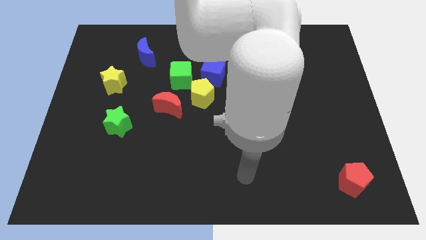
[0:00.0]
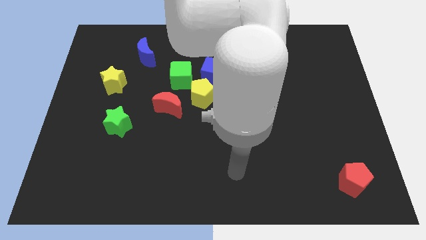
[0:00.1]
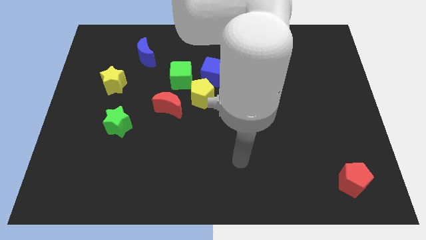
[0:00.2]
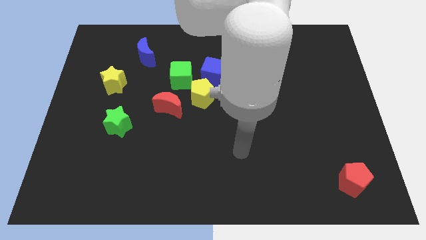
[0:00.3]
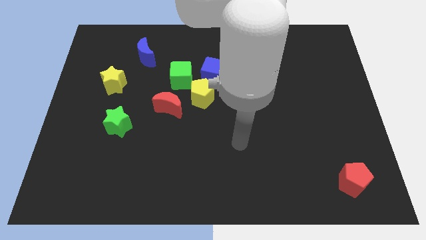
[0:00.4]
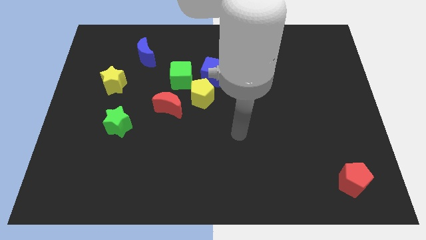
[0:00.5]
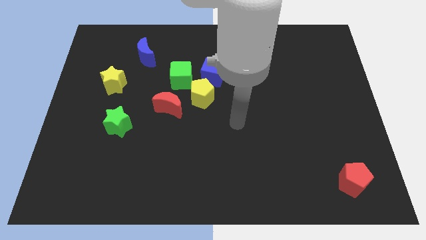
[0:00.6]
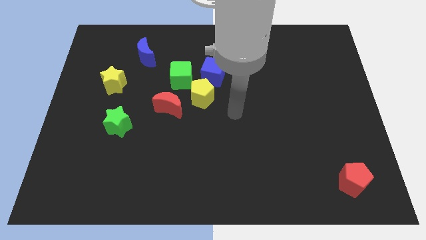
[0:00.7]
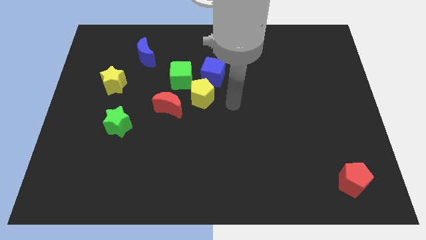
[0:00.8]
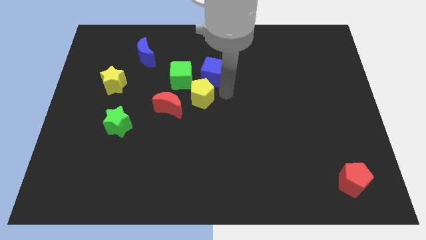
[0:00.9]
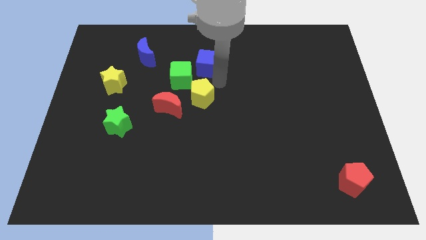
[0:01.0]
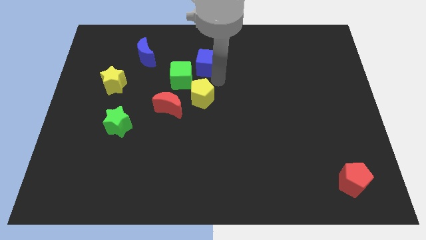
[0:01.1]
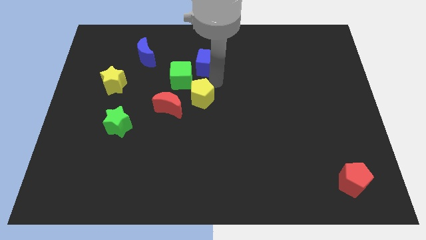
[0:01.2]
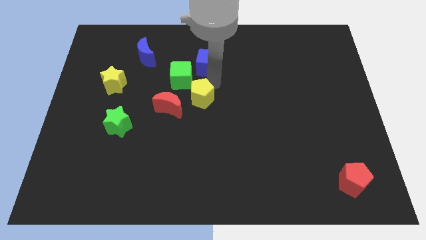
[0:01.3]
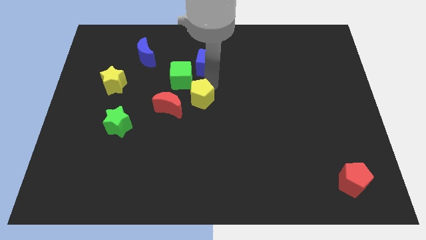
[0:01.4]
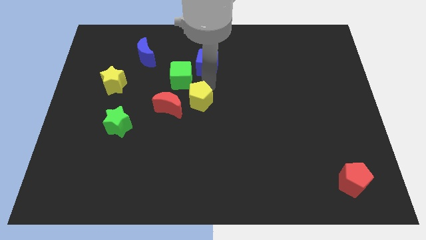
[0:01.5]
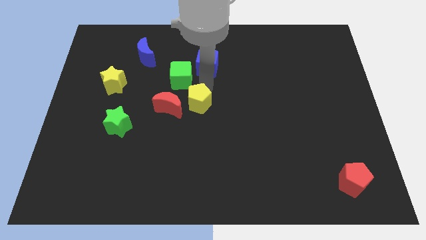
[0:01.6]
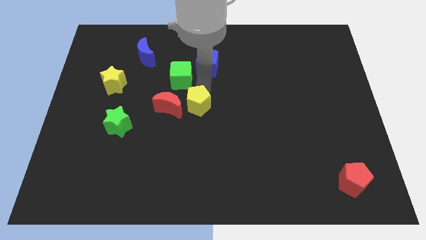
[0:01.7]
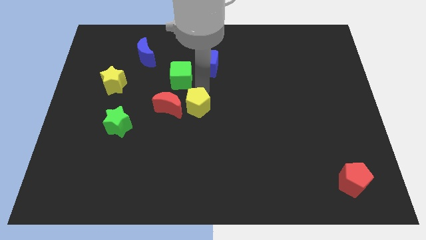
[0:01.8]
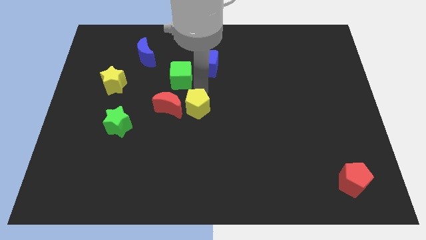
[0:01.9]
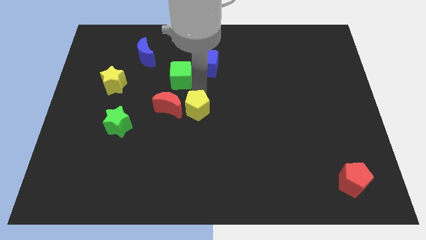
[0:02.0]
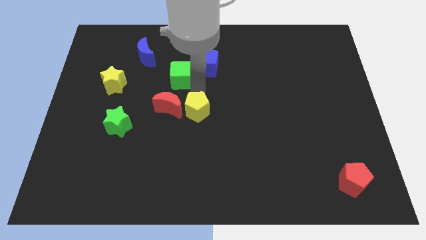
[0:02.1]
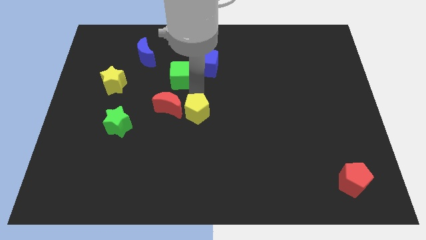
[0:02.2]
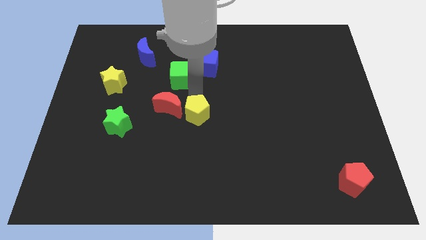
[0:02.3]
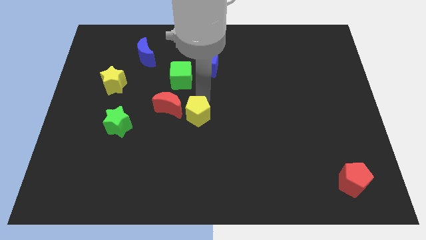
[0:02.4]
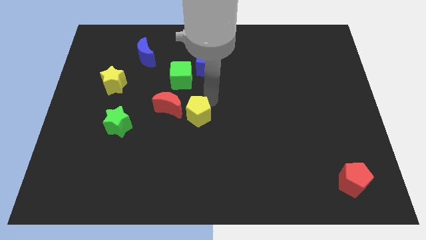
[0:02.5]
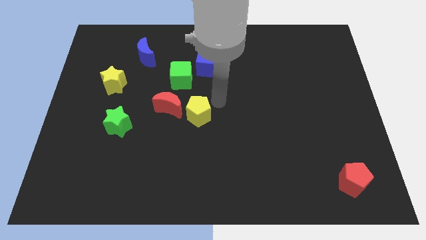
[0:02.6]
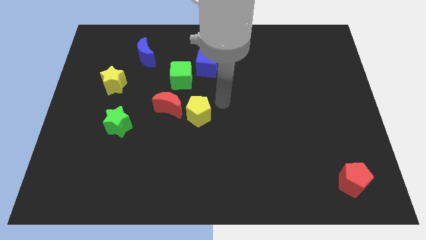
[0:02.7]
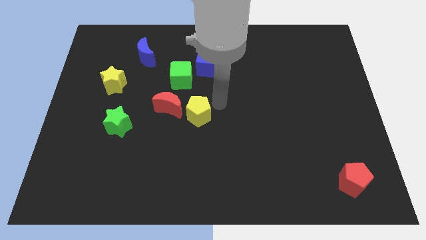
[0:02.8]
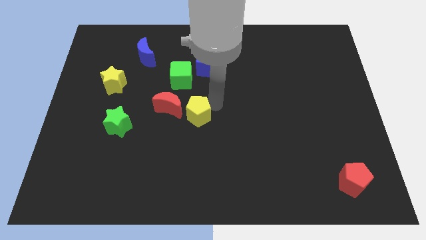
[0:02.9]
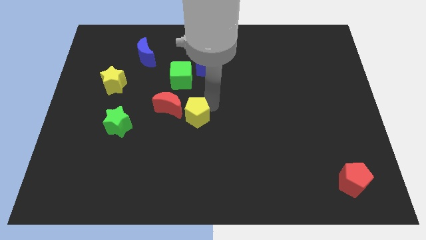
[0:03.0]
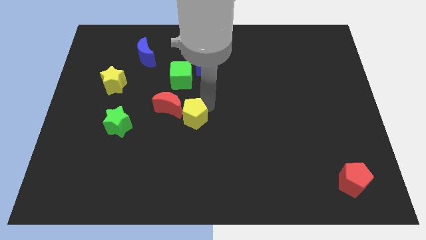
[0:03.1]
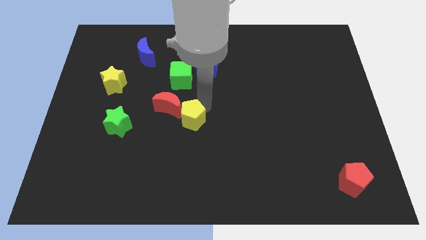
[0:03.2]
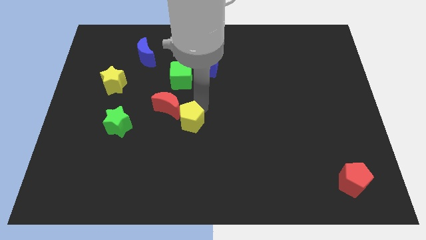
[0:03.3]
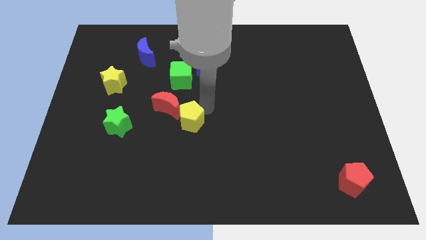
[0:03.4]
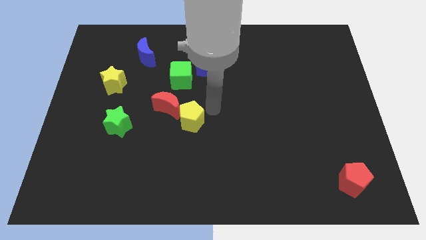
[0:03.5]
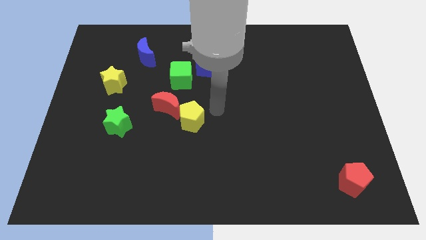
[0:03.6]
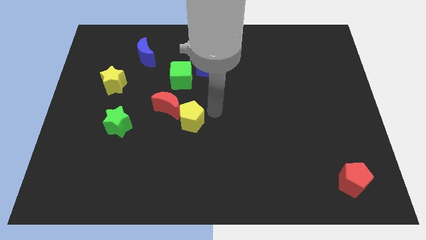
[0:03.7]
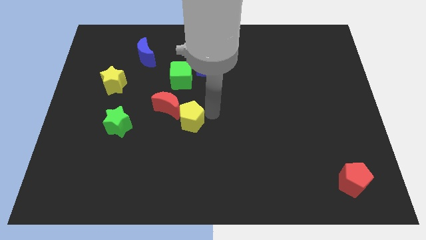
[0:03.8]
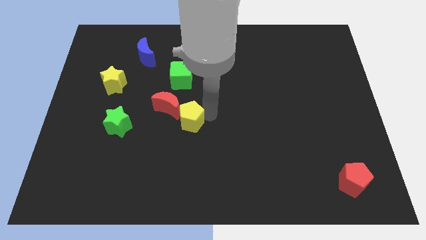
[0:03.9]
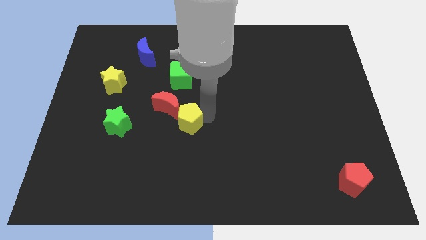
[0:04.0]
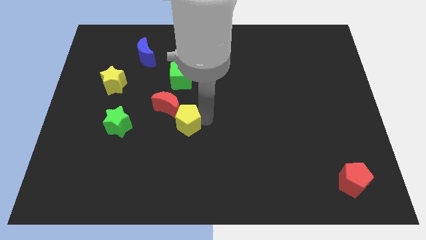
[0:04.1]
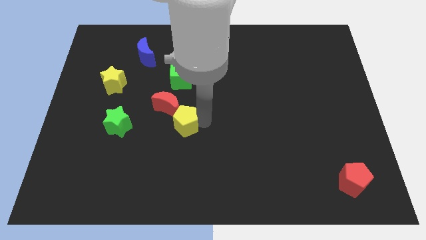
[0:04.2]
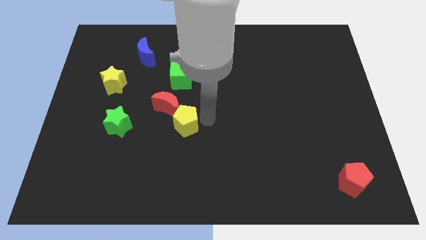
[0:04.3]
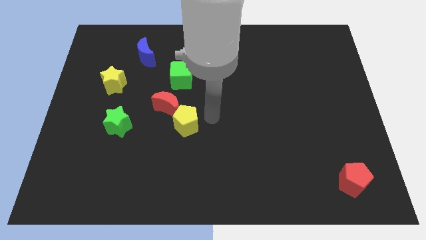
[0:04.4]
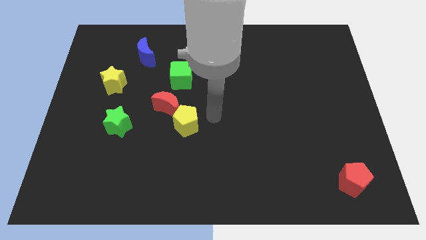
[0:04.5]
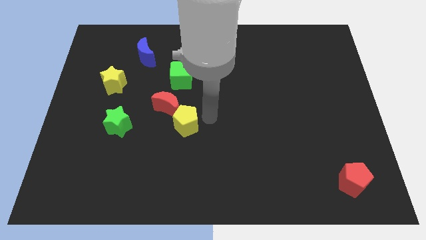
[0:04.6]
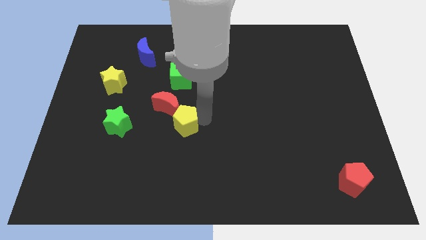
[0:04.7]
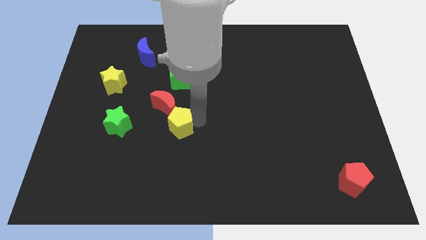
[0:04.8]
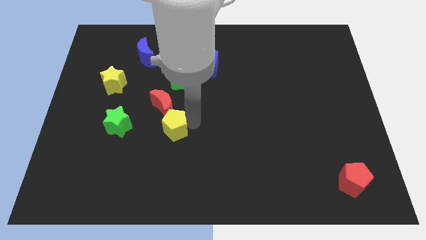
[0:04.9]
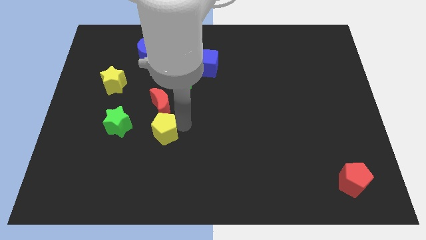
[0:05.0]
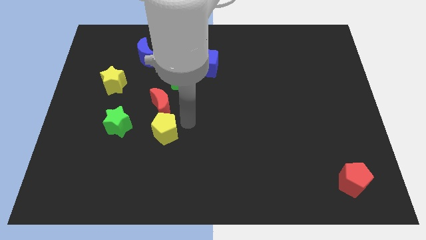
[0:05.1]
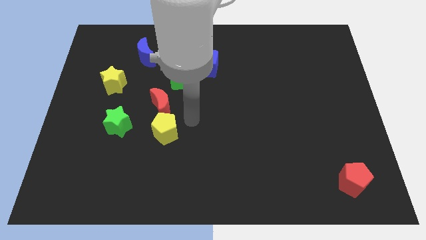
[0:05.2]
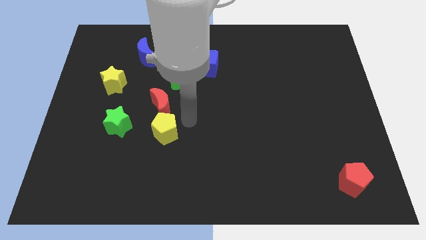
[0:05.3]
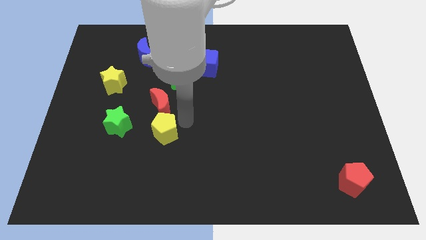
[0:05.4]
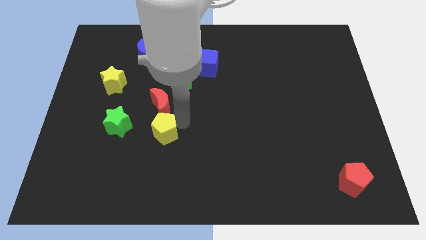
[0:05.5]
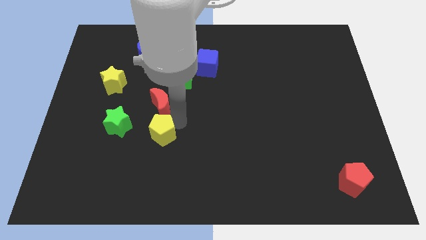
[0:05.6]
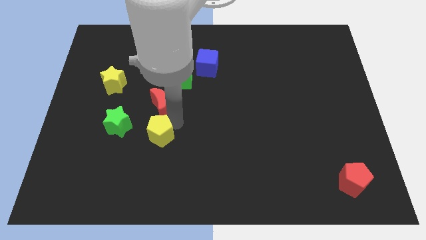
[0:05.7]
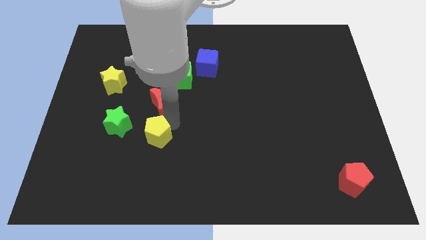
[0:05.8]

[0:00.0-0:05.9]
slide the yellow pentagon diagonally down and to the right of the green star

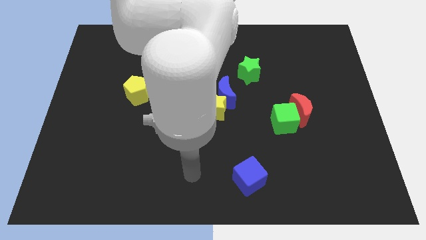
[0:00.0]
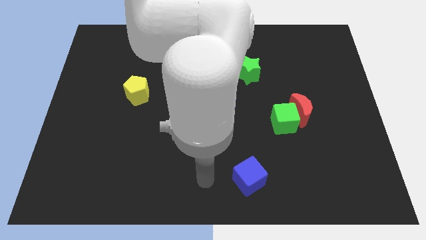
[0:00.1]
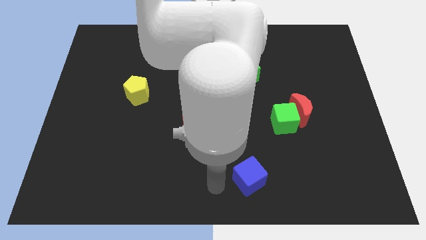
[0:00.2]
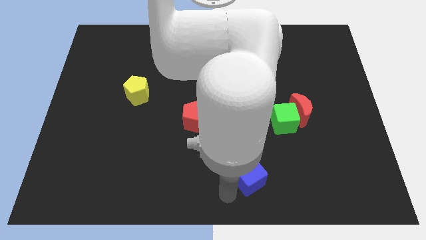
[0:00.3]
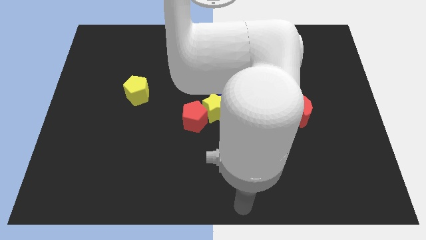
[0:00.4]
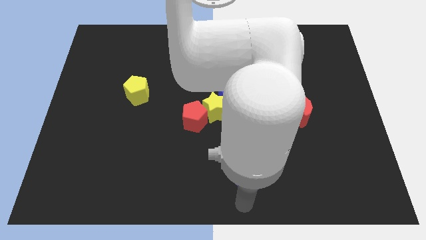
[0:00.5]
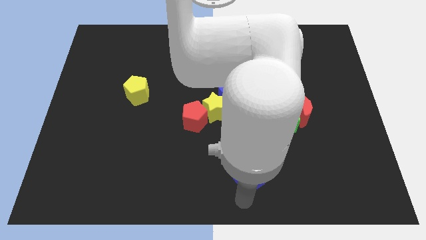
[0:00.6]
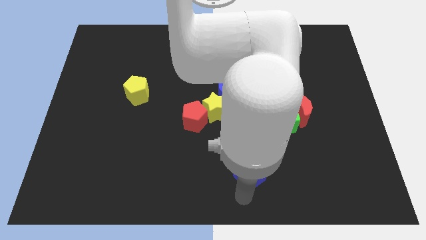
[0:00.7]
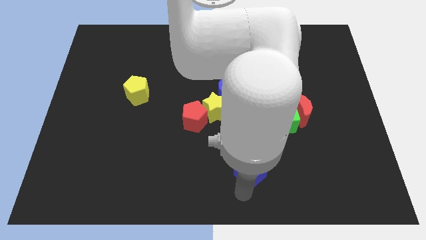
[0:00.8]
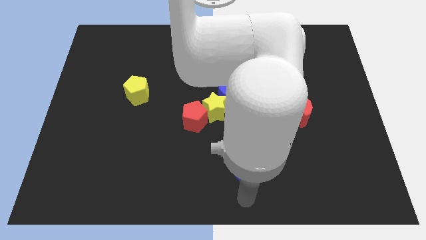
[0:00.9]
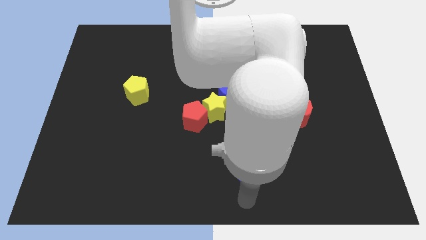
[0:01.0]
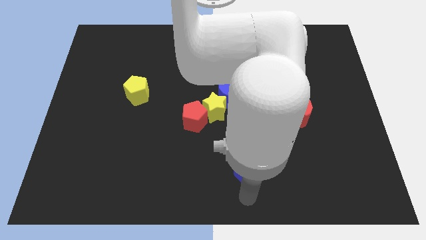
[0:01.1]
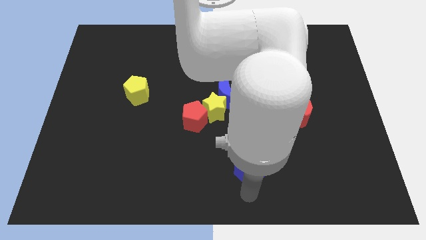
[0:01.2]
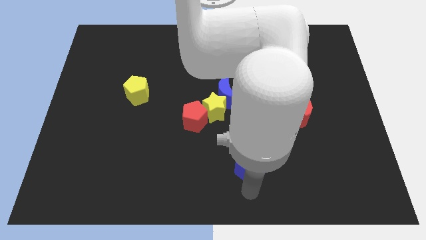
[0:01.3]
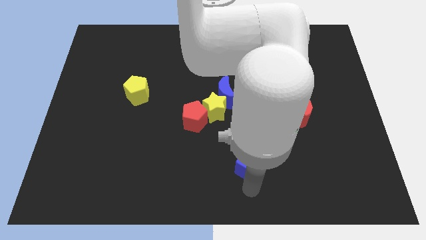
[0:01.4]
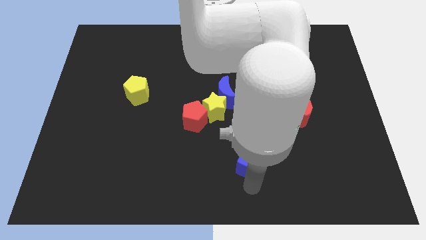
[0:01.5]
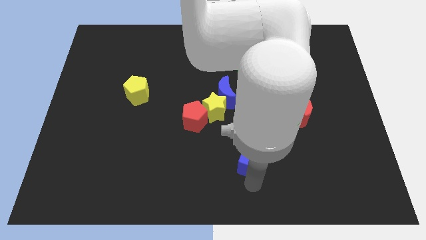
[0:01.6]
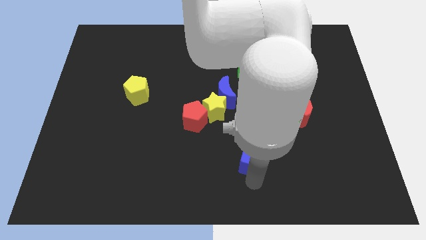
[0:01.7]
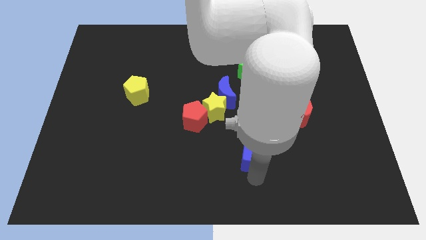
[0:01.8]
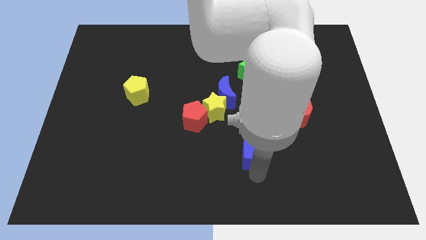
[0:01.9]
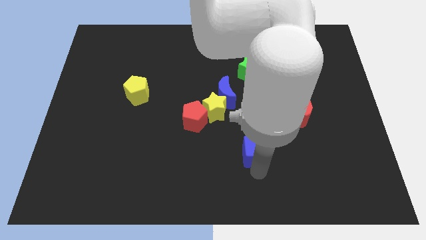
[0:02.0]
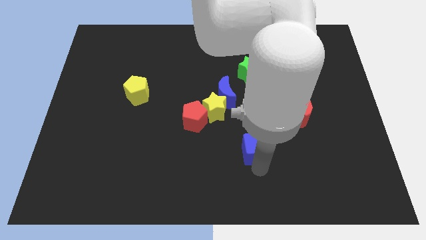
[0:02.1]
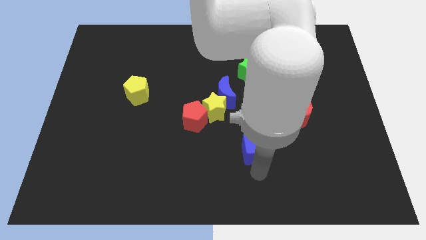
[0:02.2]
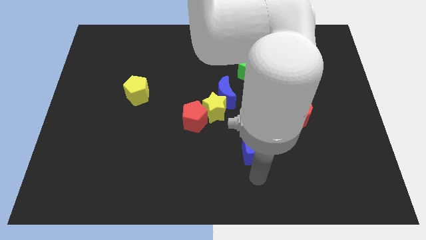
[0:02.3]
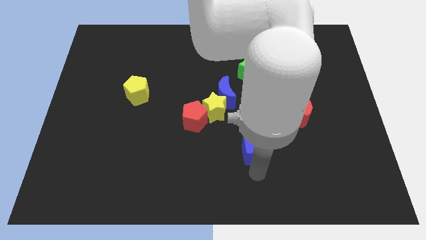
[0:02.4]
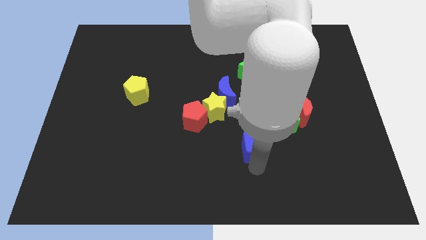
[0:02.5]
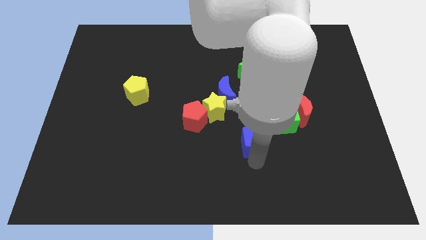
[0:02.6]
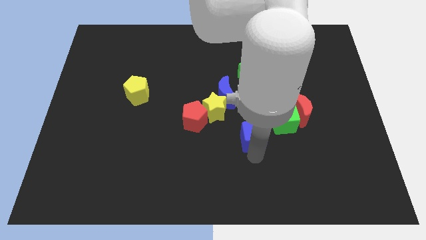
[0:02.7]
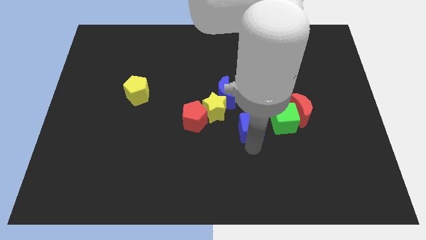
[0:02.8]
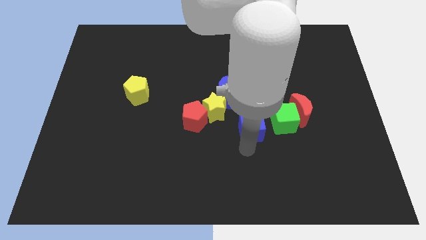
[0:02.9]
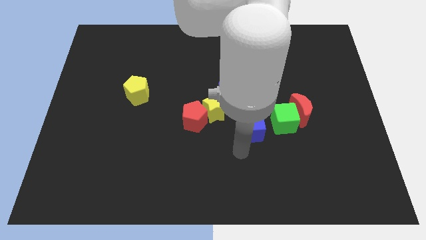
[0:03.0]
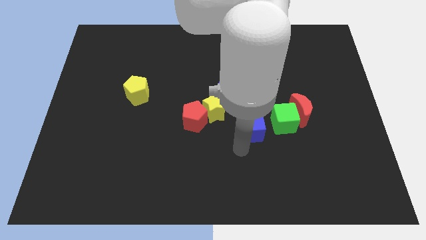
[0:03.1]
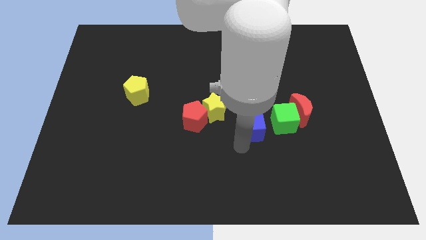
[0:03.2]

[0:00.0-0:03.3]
move the blue cube to the right side of the yellow star
